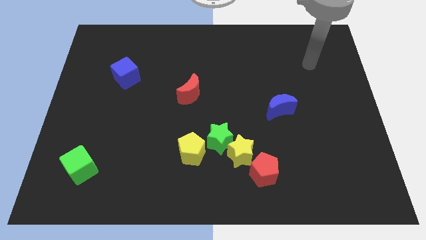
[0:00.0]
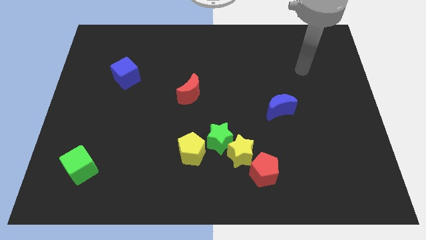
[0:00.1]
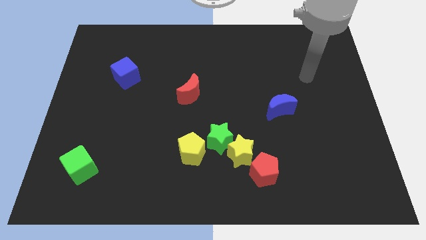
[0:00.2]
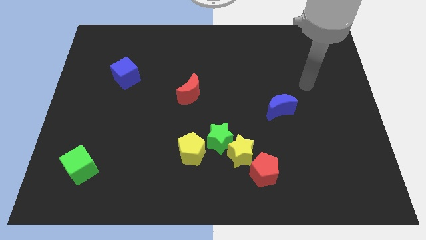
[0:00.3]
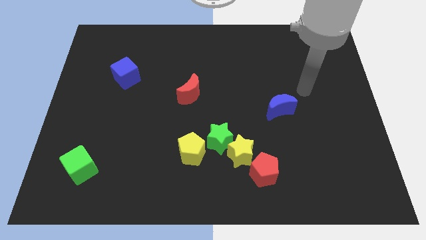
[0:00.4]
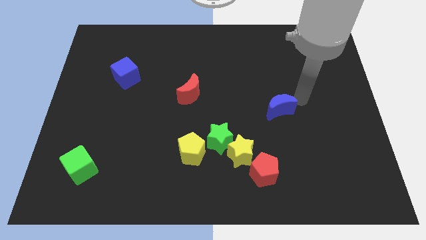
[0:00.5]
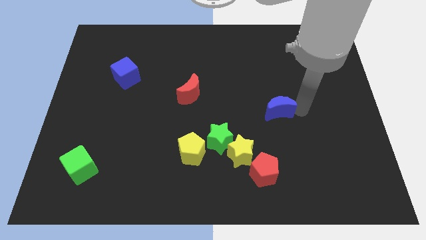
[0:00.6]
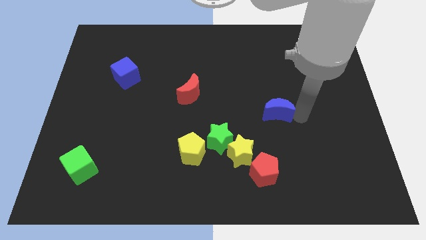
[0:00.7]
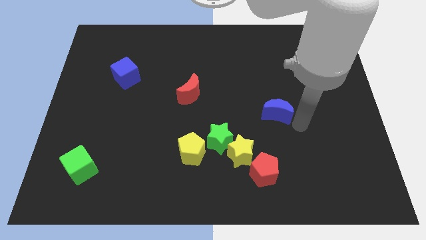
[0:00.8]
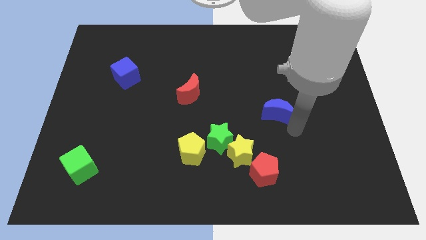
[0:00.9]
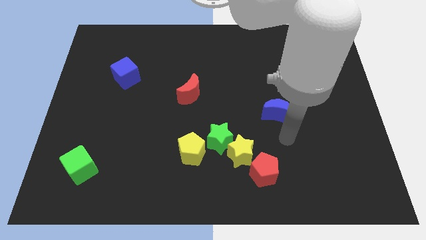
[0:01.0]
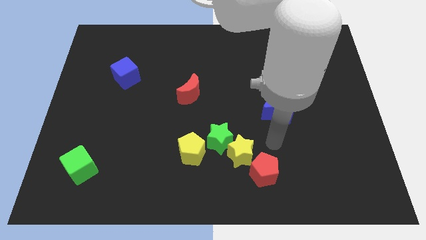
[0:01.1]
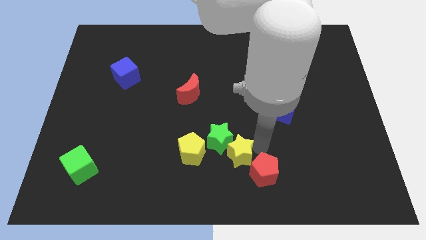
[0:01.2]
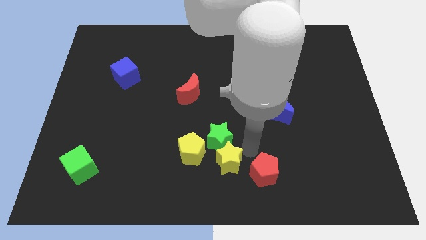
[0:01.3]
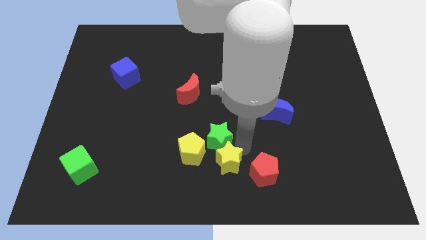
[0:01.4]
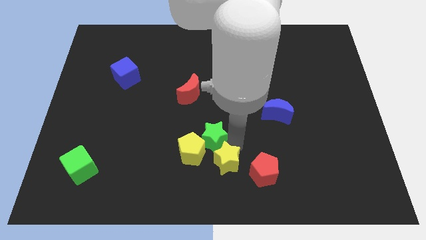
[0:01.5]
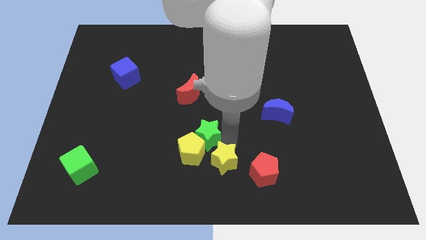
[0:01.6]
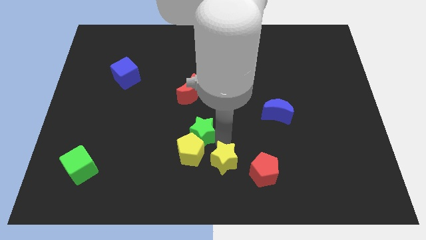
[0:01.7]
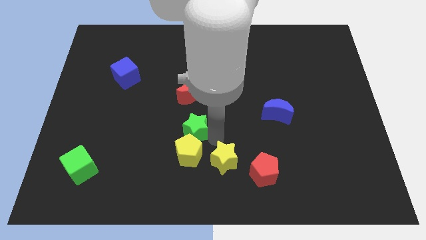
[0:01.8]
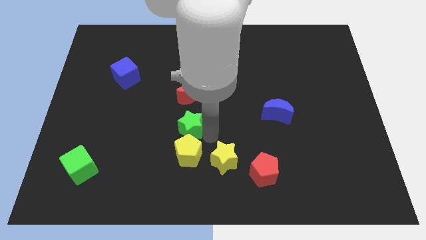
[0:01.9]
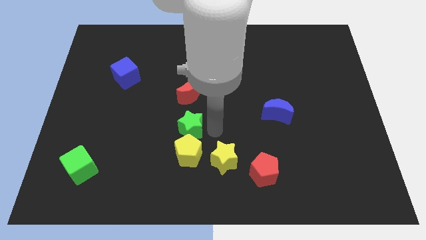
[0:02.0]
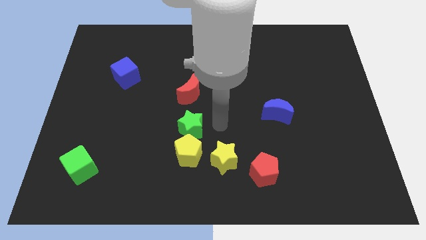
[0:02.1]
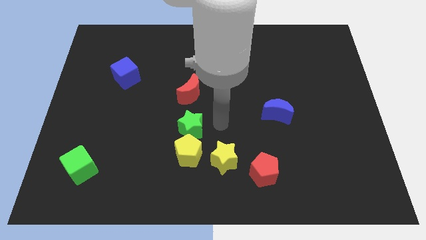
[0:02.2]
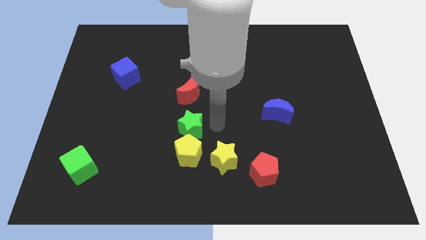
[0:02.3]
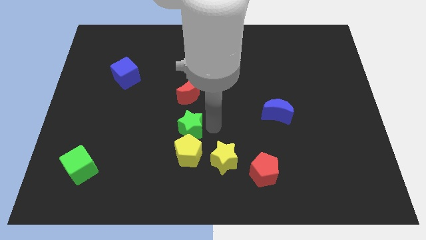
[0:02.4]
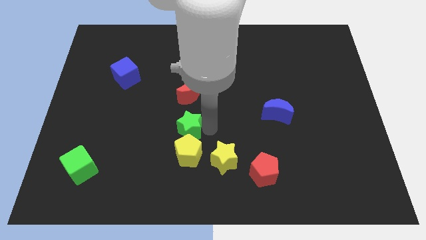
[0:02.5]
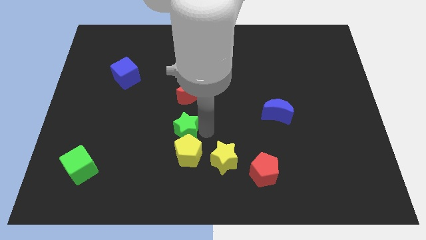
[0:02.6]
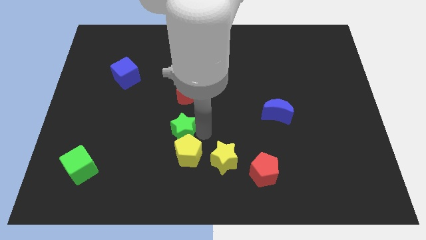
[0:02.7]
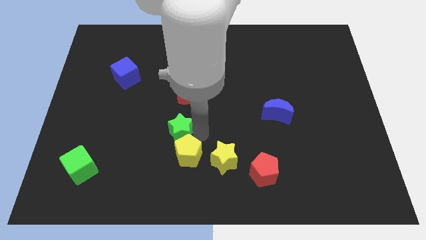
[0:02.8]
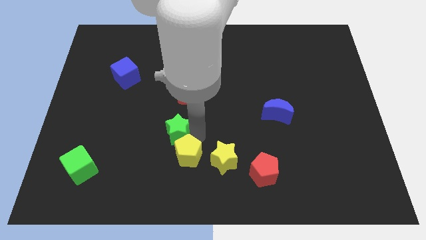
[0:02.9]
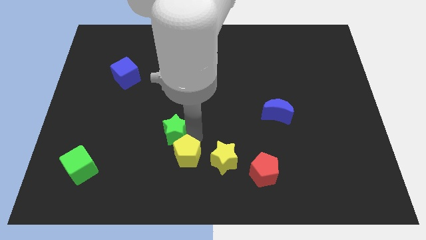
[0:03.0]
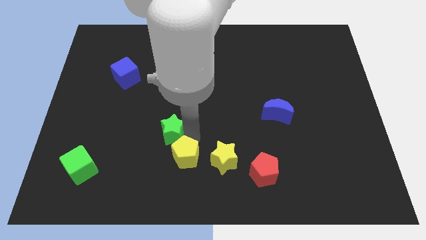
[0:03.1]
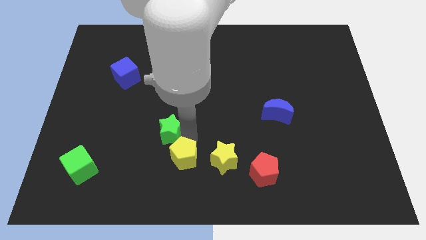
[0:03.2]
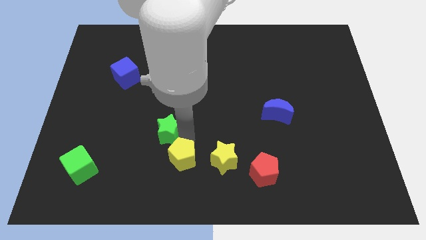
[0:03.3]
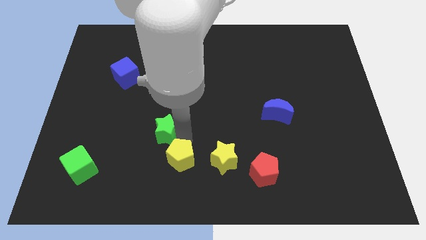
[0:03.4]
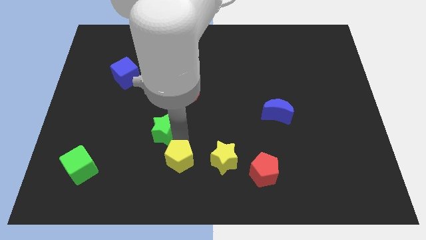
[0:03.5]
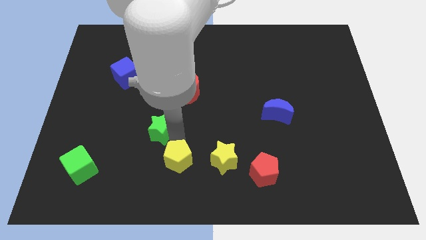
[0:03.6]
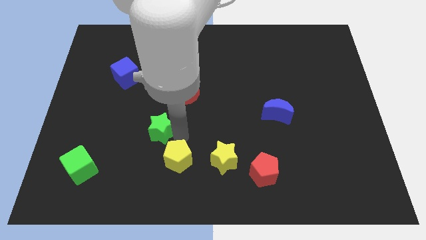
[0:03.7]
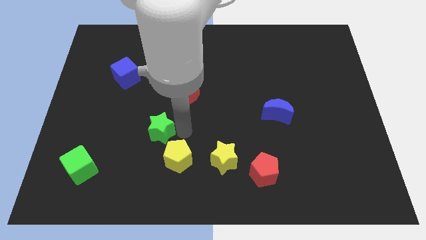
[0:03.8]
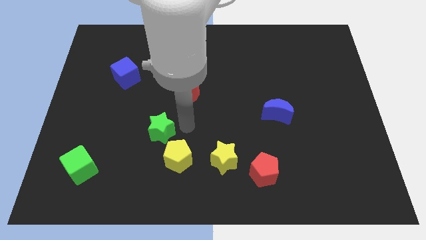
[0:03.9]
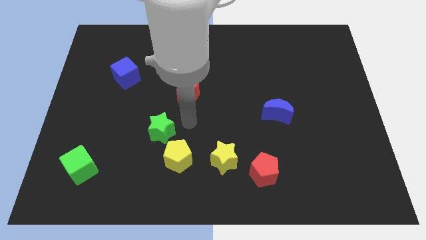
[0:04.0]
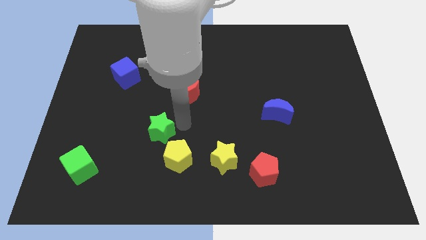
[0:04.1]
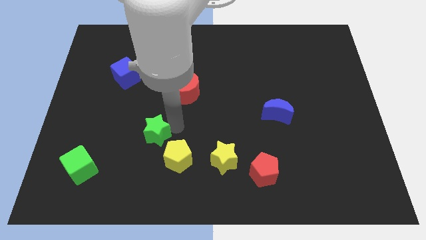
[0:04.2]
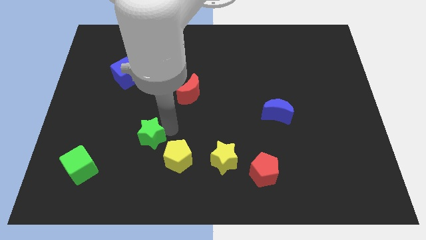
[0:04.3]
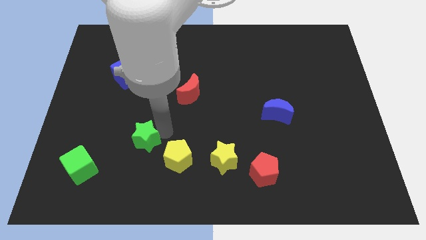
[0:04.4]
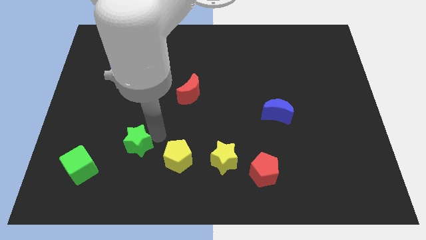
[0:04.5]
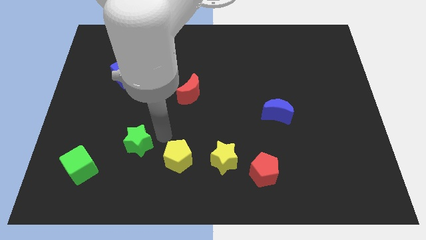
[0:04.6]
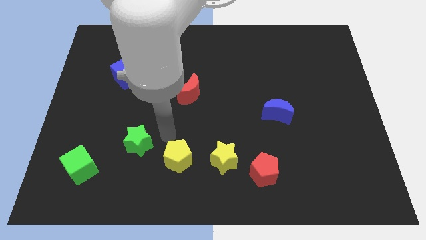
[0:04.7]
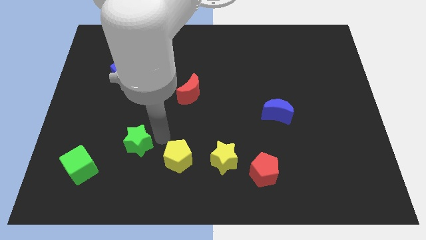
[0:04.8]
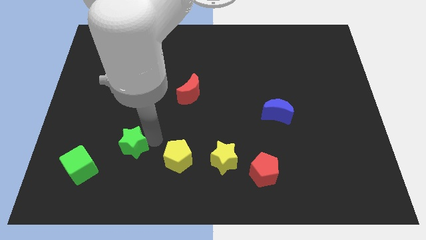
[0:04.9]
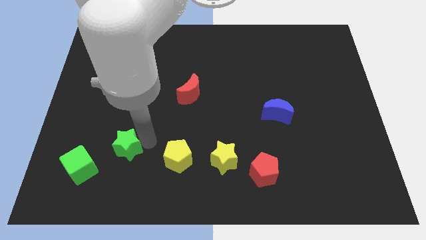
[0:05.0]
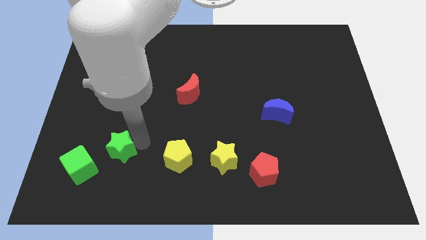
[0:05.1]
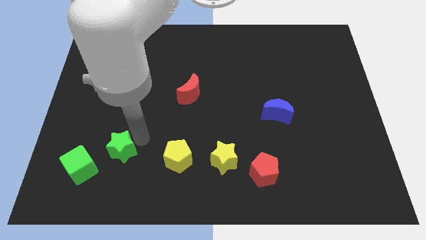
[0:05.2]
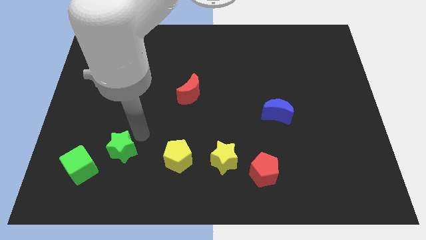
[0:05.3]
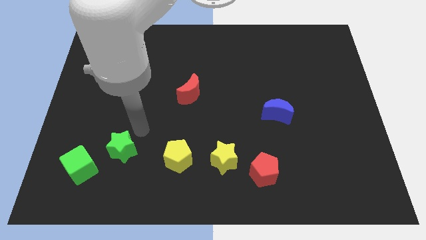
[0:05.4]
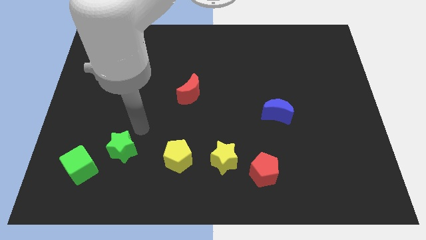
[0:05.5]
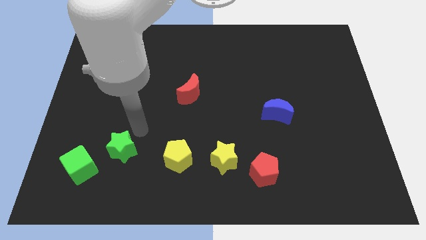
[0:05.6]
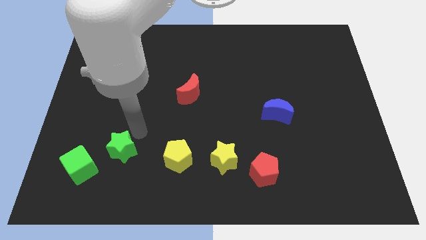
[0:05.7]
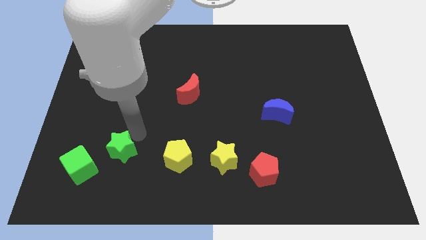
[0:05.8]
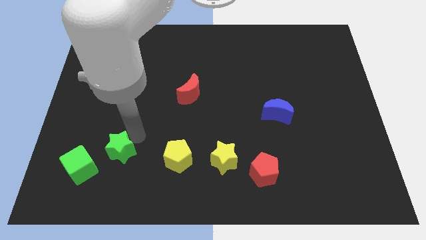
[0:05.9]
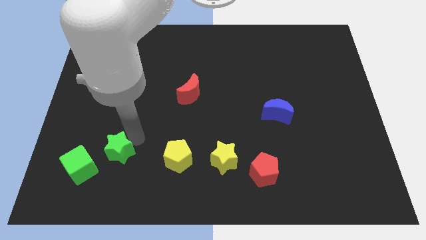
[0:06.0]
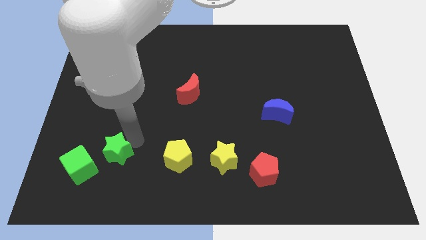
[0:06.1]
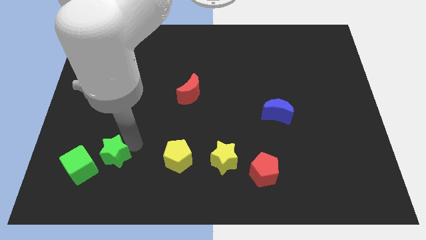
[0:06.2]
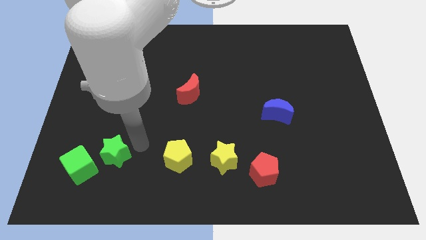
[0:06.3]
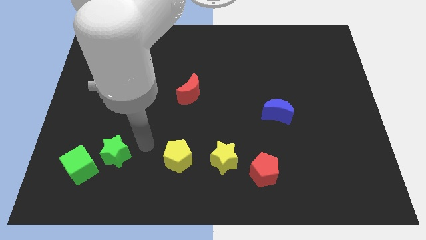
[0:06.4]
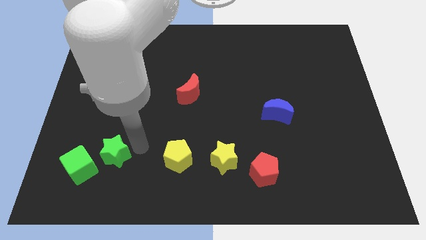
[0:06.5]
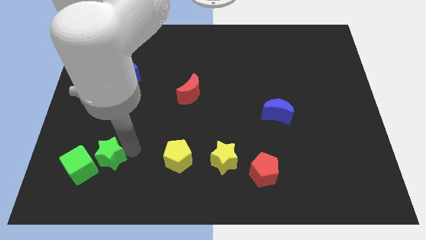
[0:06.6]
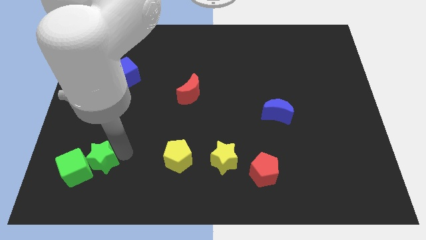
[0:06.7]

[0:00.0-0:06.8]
move the green star to the green cube

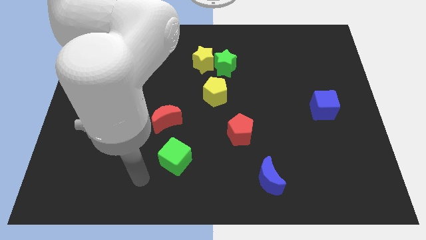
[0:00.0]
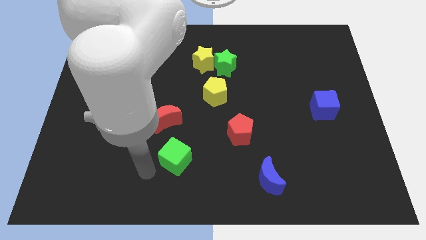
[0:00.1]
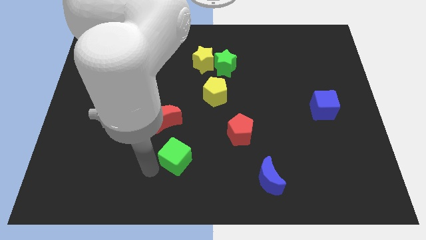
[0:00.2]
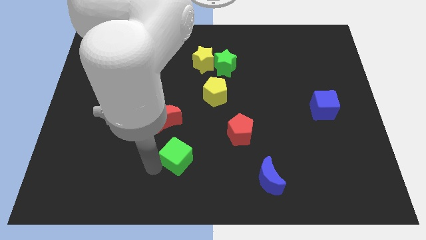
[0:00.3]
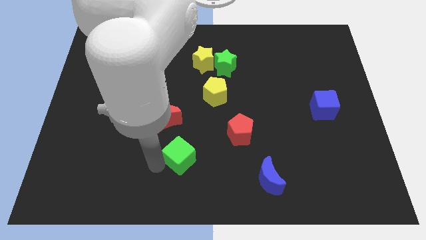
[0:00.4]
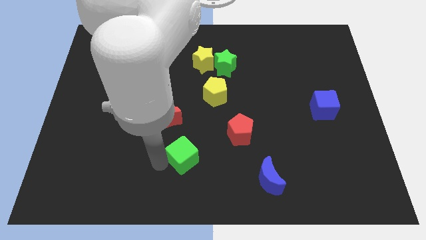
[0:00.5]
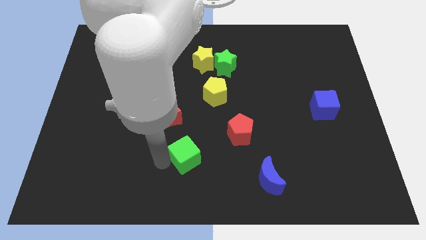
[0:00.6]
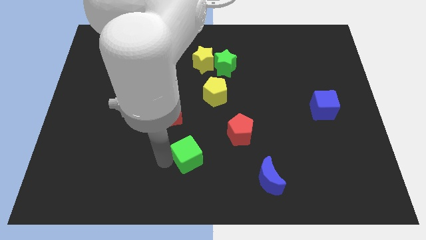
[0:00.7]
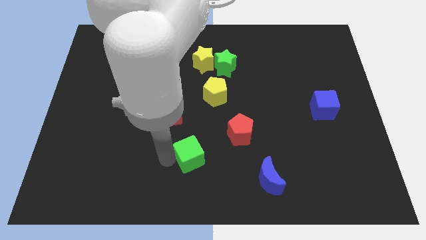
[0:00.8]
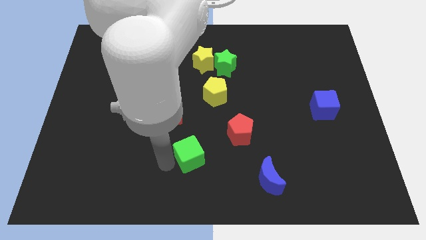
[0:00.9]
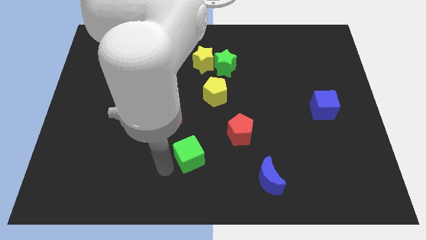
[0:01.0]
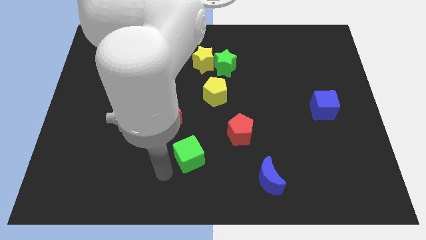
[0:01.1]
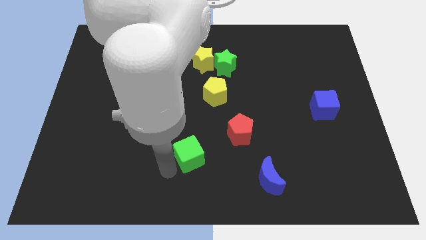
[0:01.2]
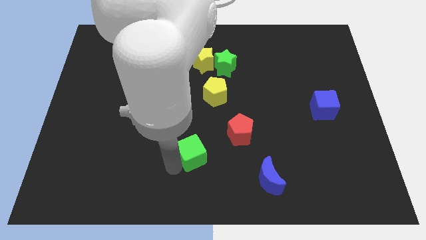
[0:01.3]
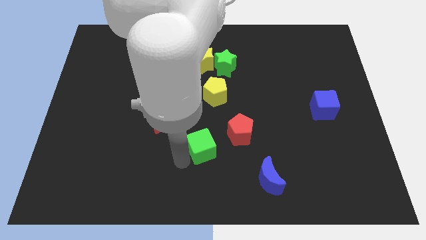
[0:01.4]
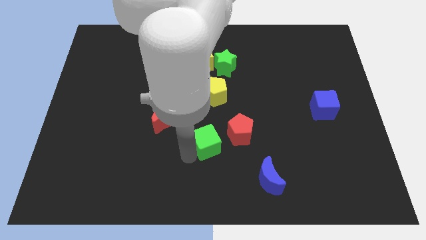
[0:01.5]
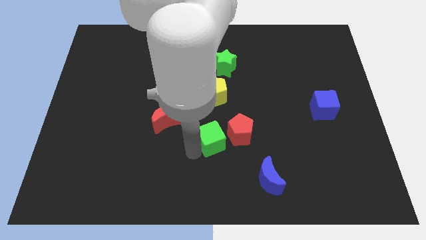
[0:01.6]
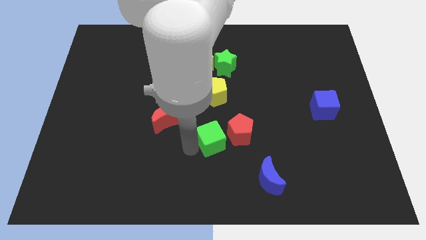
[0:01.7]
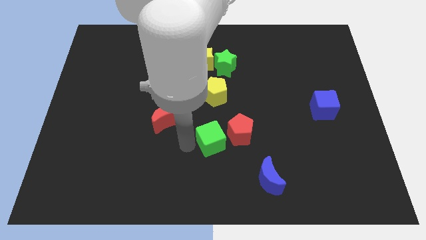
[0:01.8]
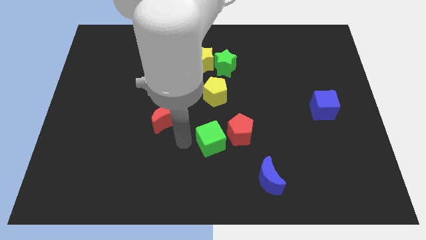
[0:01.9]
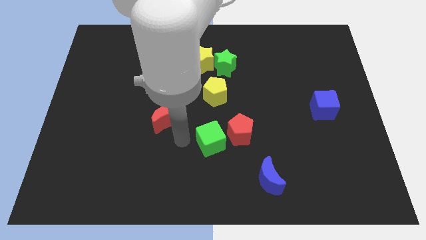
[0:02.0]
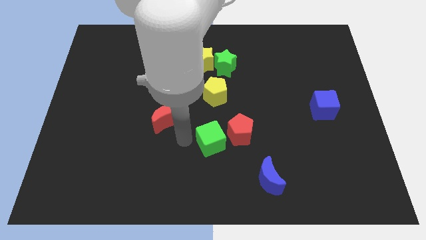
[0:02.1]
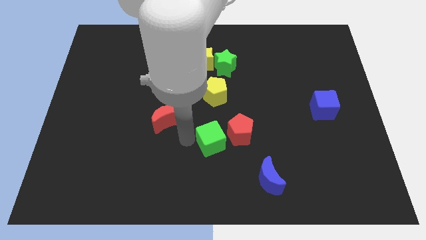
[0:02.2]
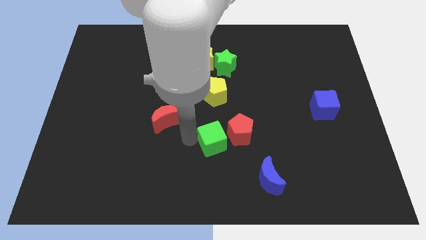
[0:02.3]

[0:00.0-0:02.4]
slide the green cube next to the red pentagon
